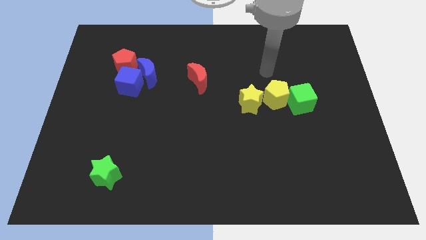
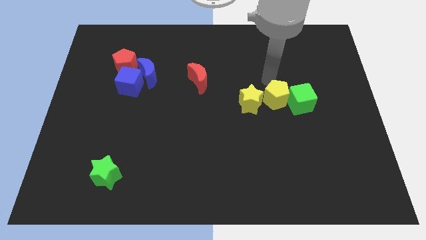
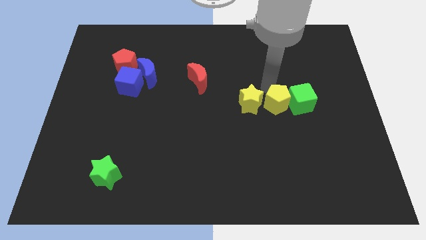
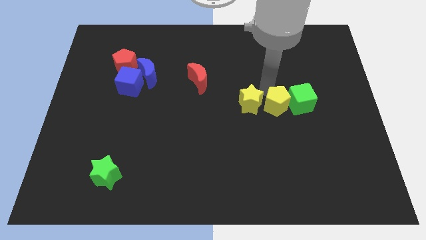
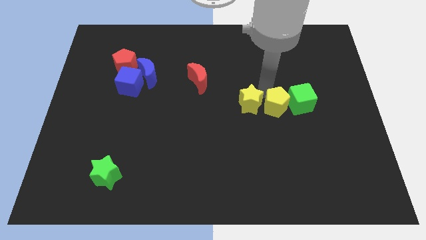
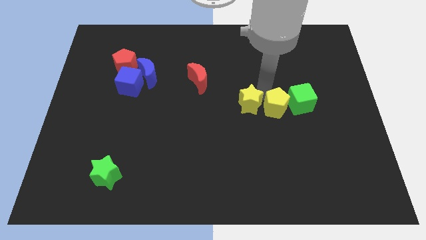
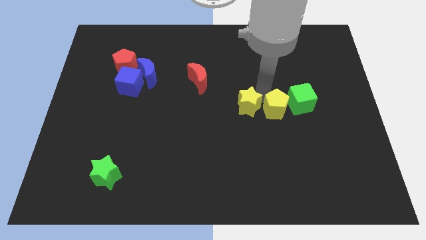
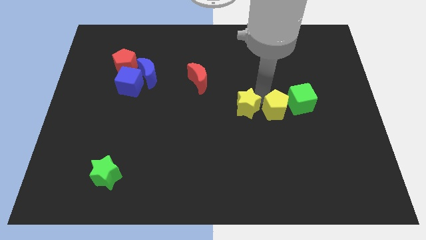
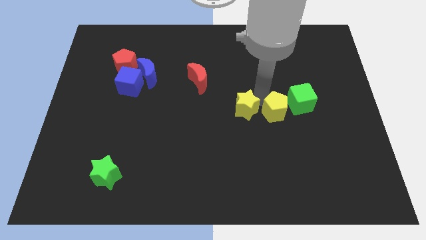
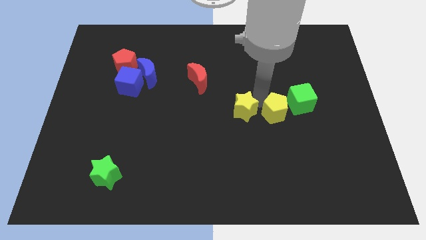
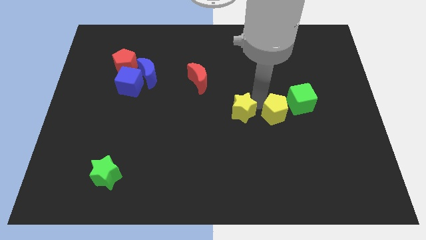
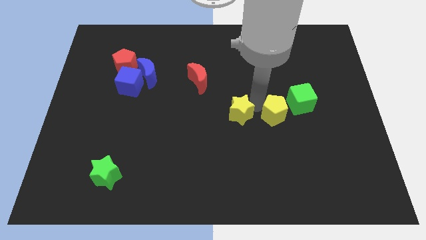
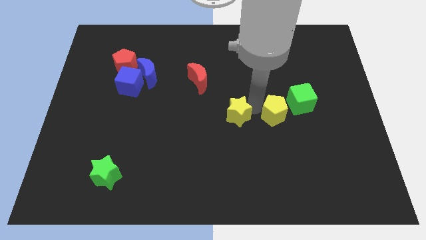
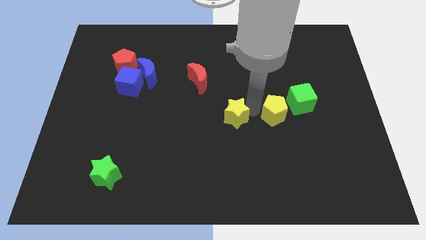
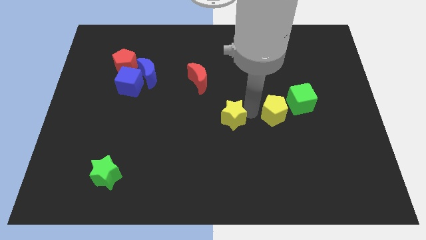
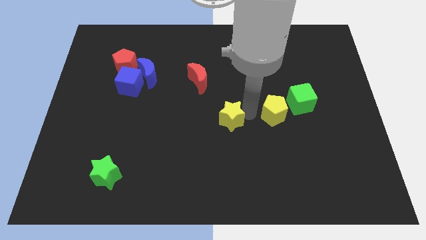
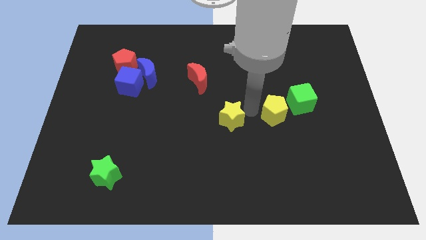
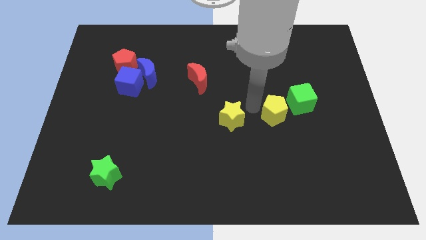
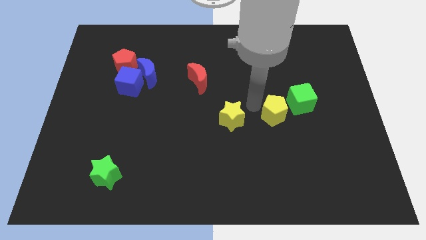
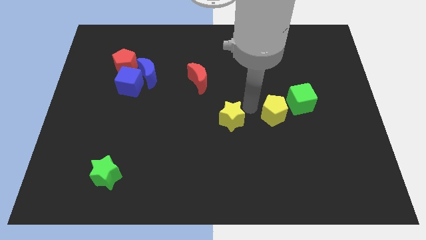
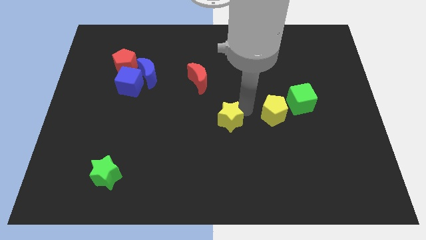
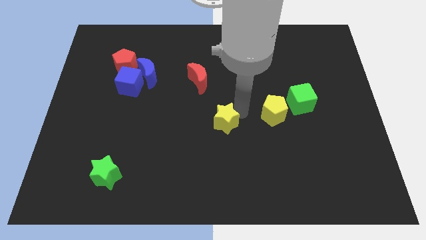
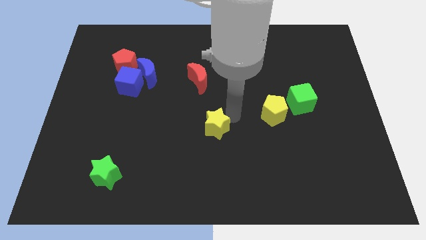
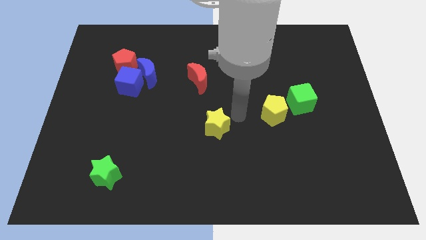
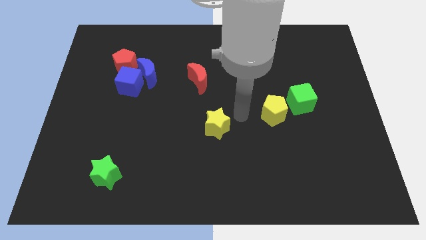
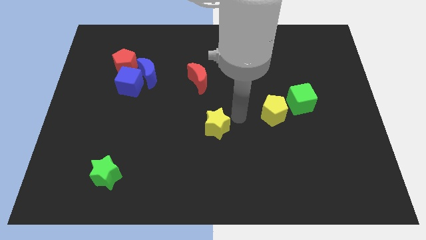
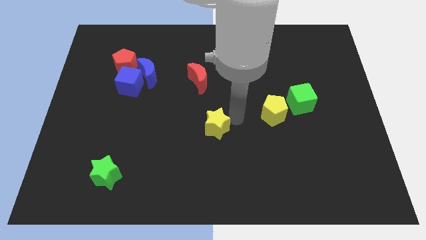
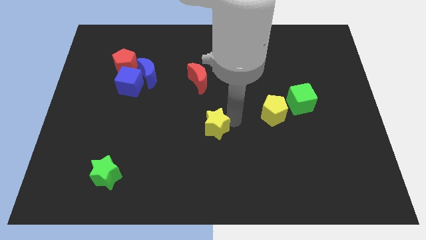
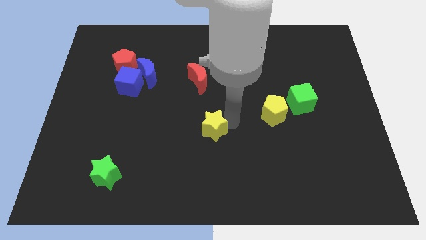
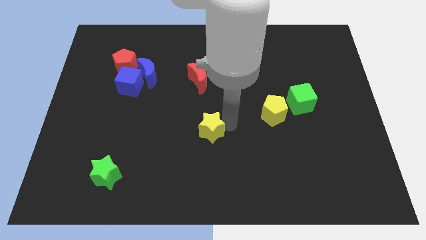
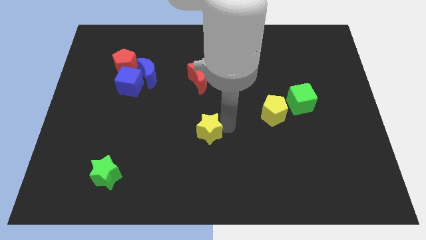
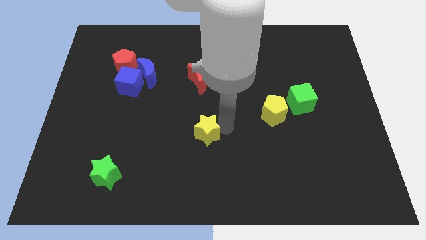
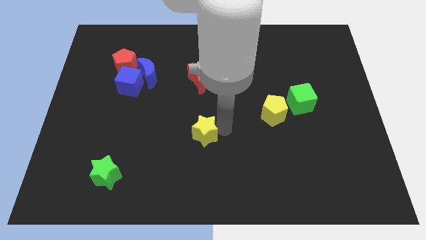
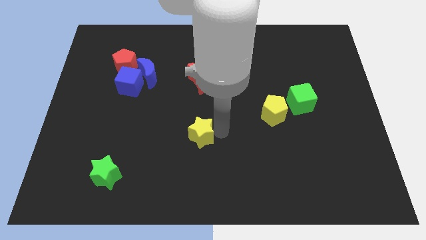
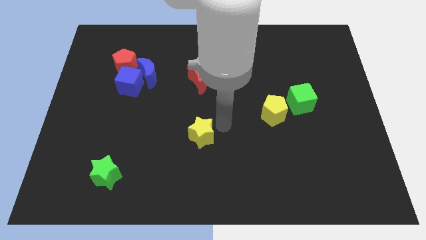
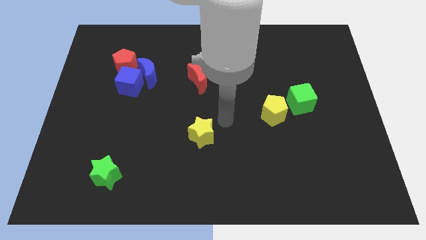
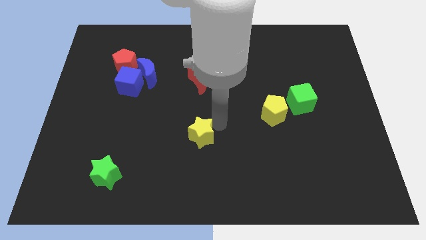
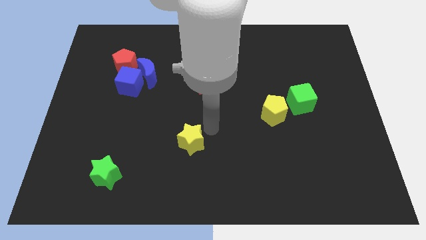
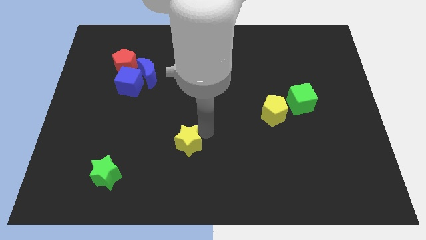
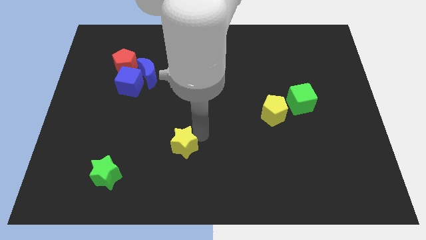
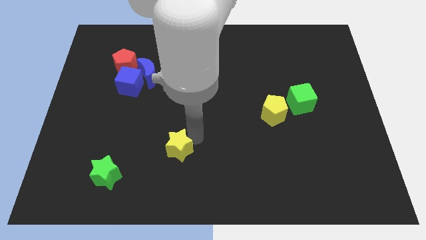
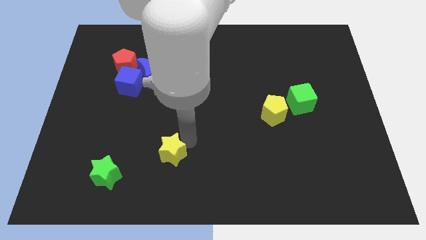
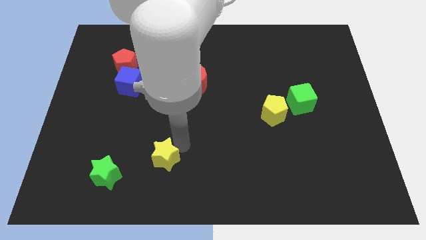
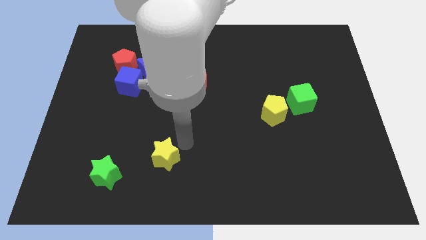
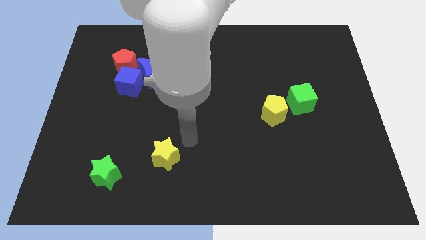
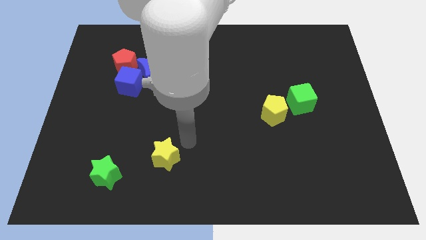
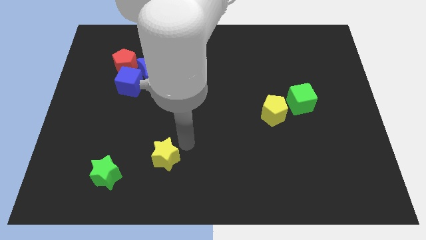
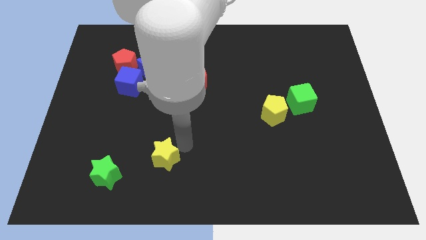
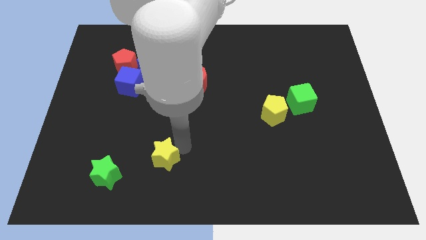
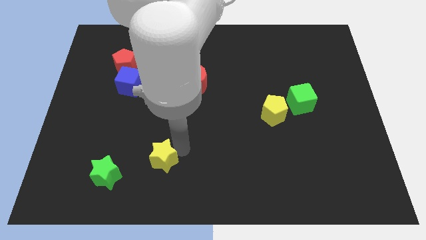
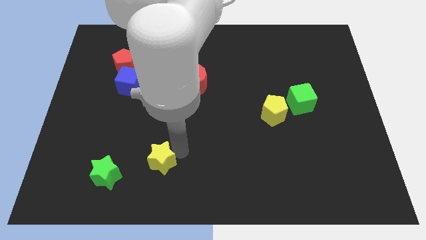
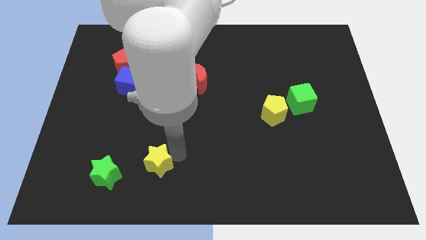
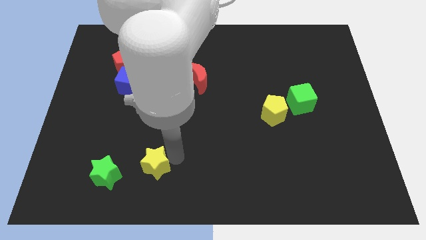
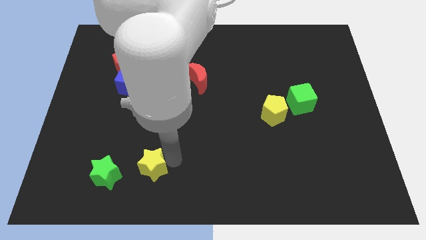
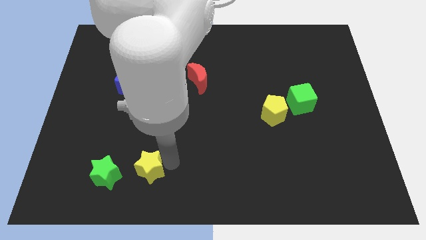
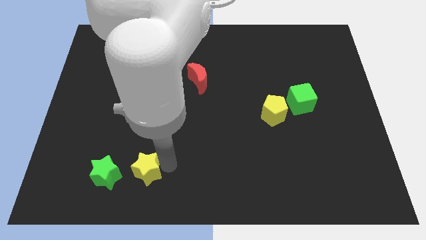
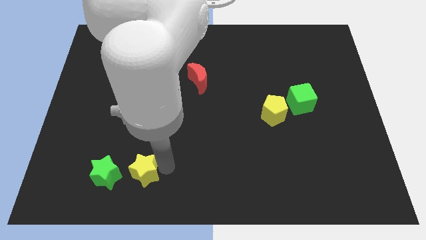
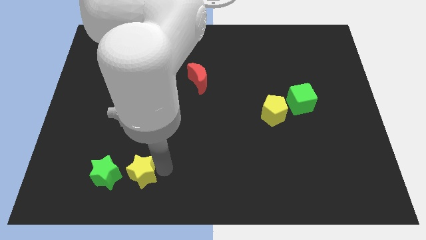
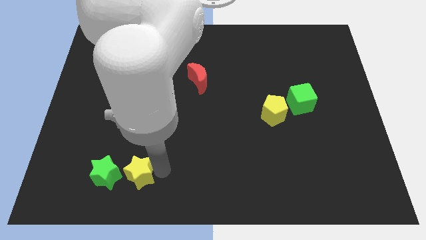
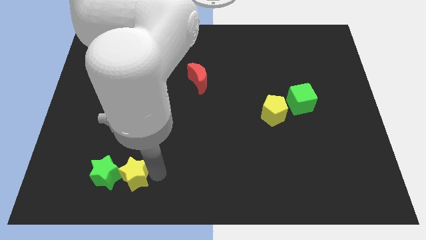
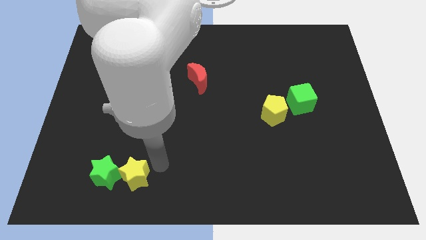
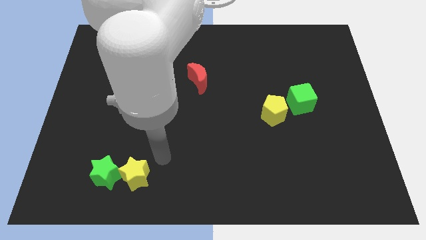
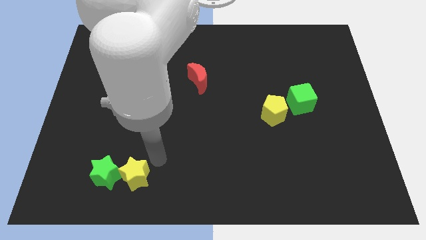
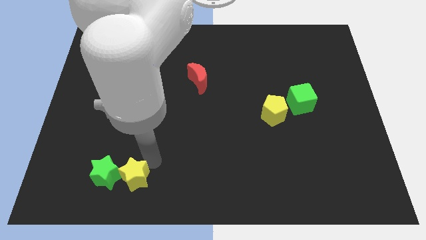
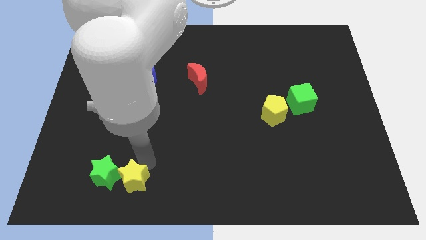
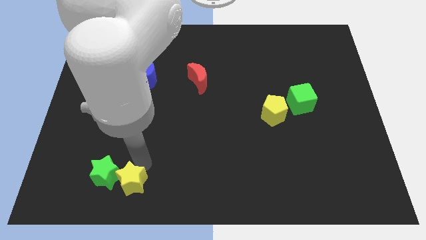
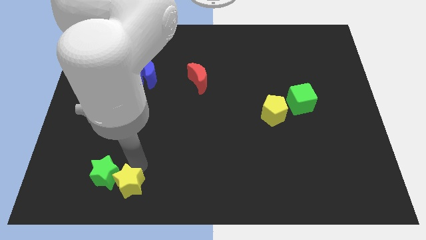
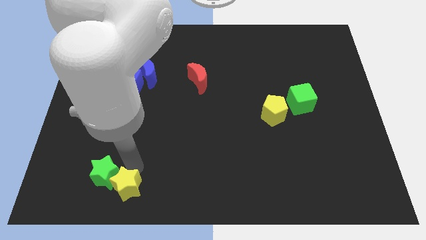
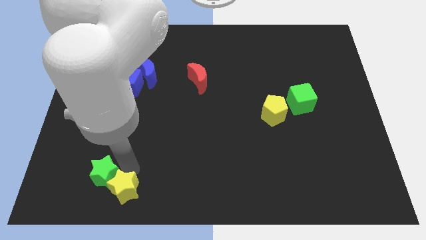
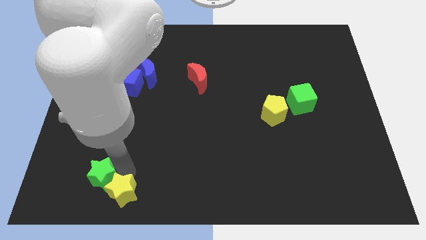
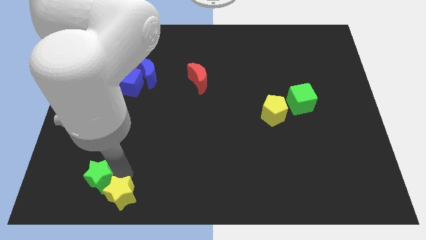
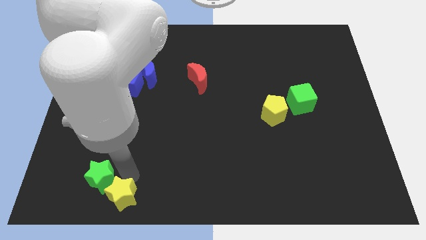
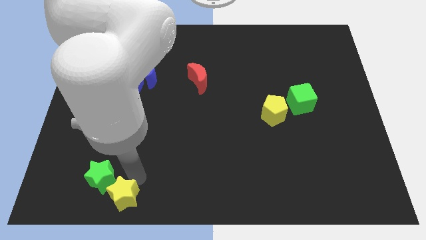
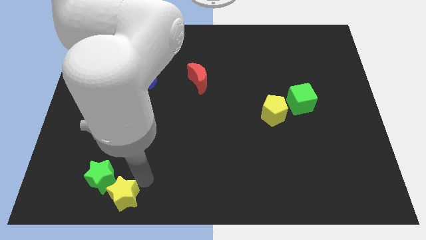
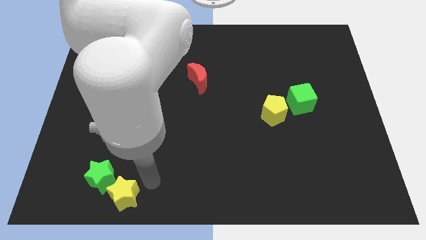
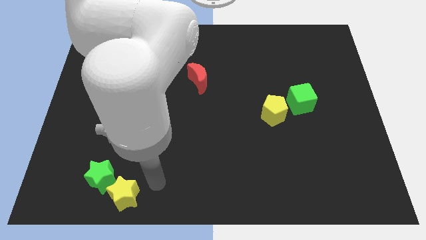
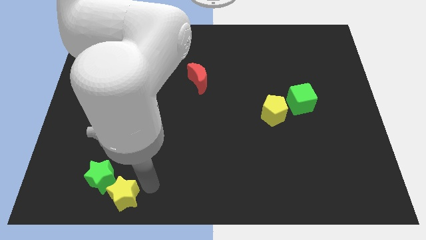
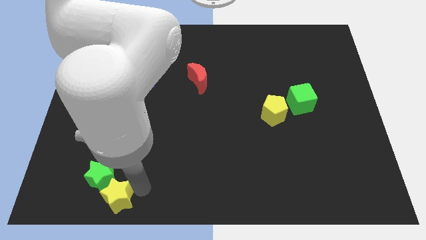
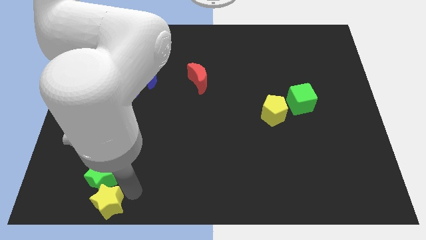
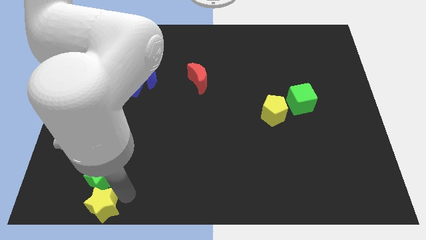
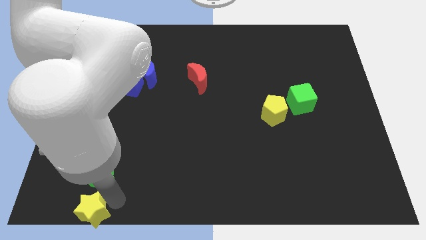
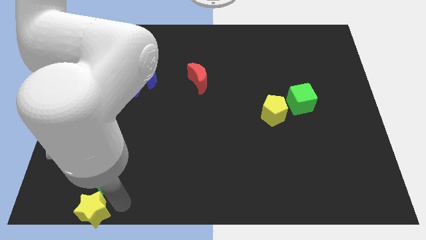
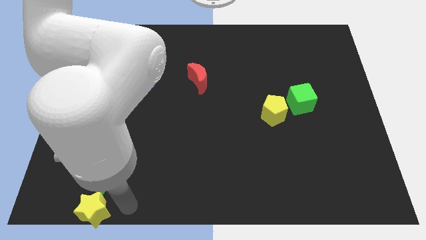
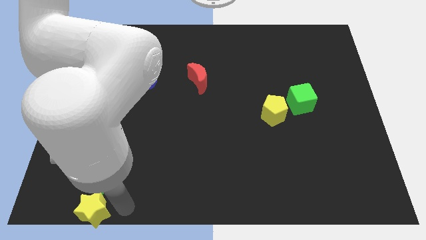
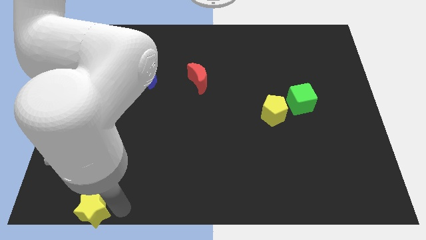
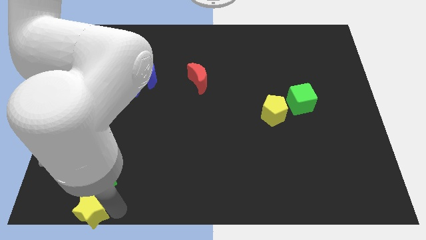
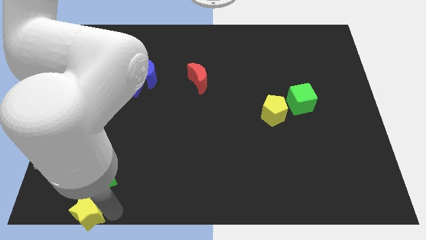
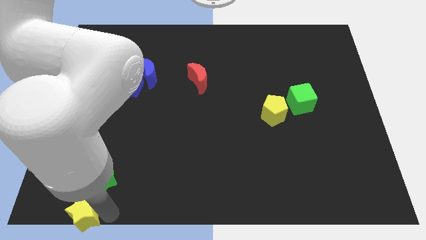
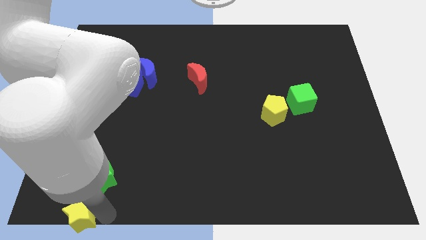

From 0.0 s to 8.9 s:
put the yellow star to the bottom left
